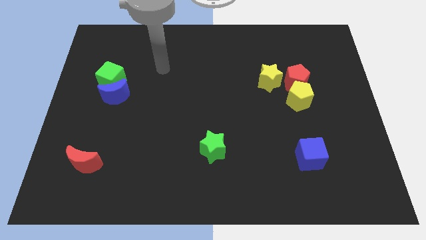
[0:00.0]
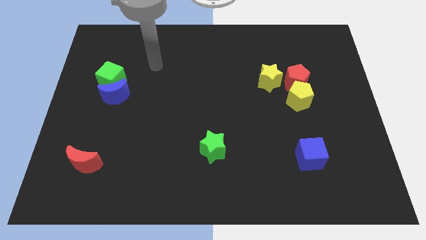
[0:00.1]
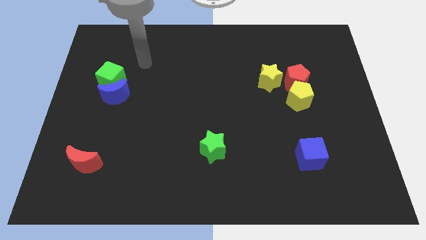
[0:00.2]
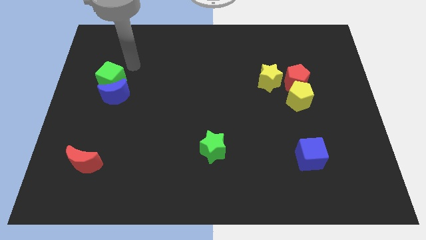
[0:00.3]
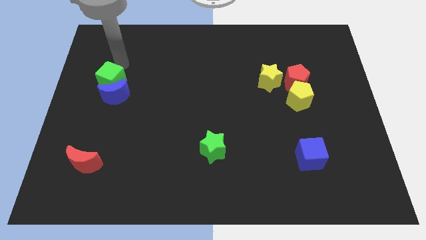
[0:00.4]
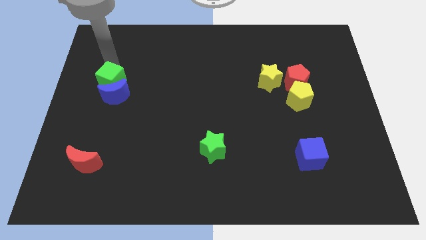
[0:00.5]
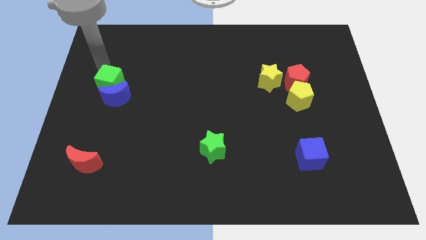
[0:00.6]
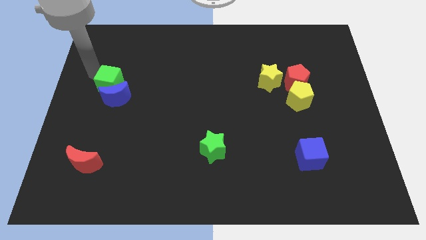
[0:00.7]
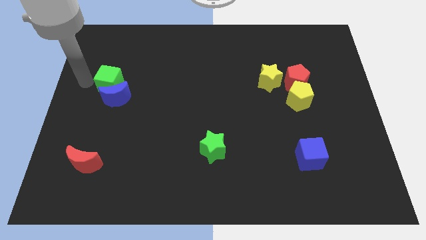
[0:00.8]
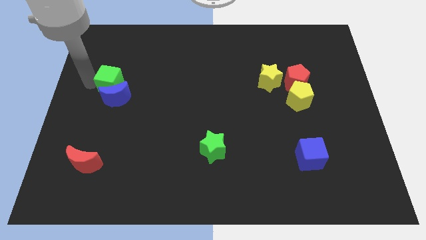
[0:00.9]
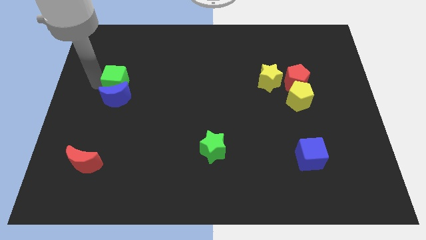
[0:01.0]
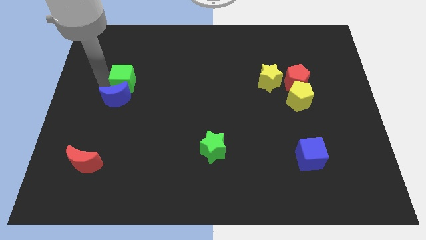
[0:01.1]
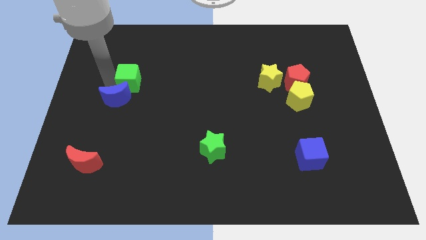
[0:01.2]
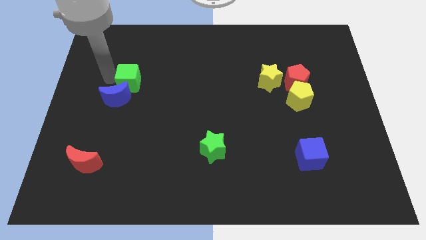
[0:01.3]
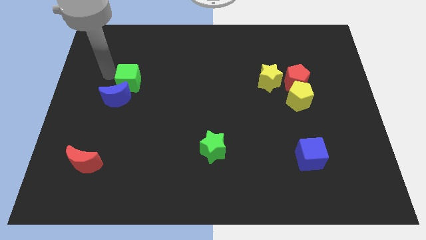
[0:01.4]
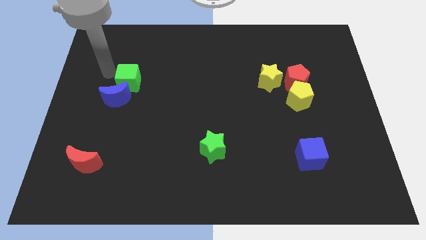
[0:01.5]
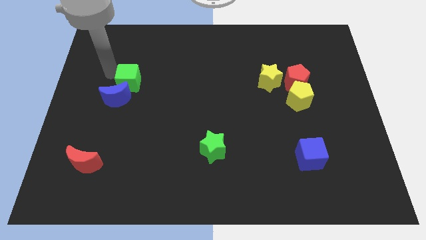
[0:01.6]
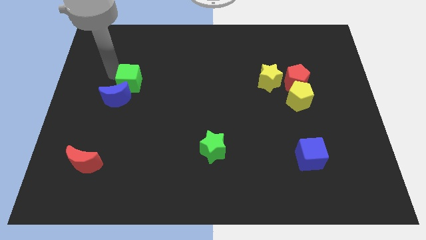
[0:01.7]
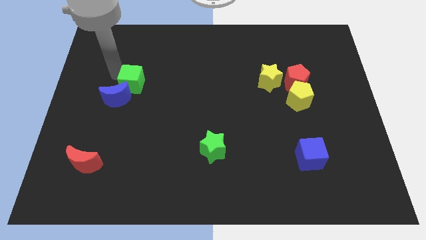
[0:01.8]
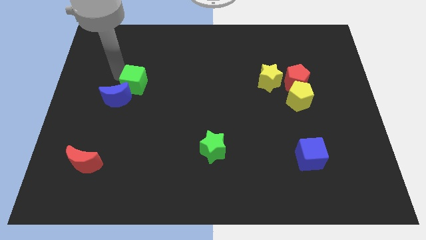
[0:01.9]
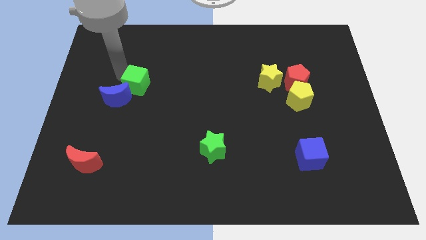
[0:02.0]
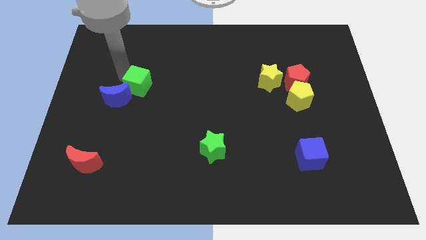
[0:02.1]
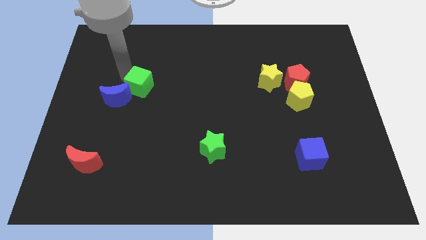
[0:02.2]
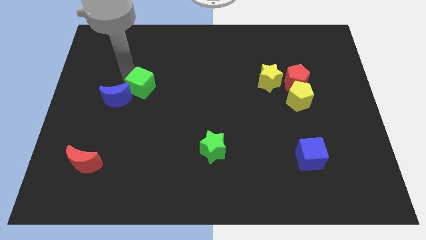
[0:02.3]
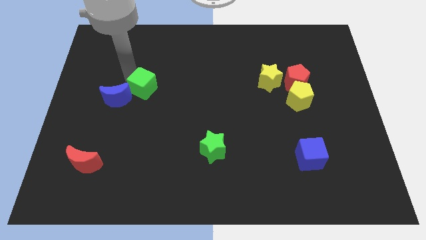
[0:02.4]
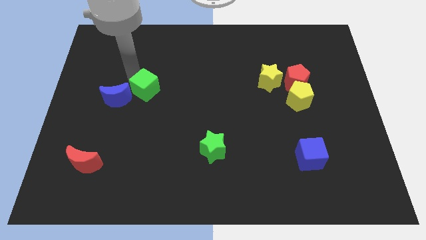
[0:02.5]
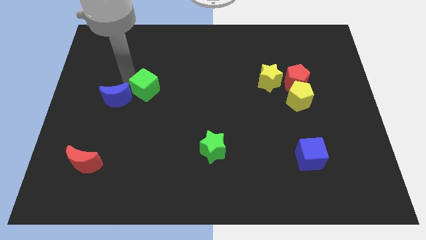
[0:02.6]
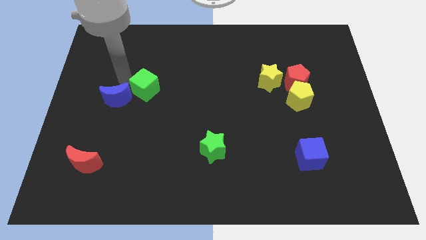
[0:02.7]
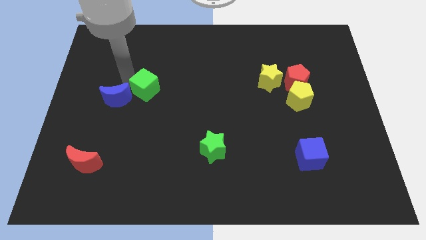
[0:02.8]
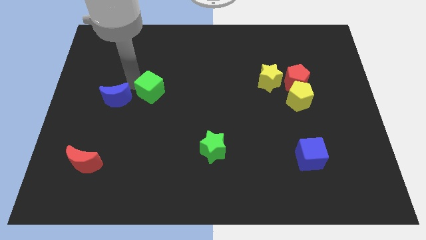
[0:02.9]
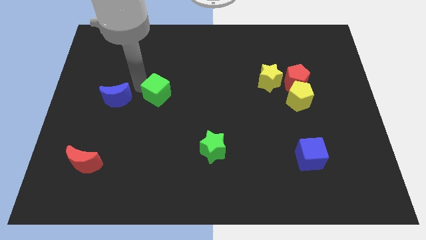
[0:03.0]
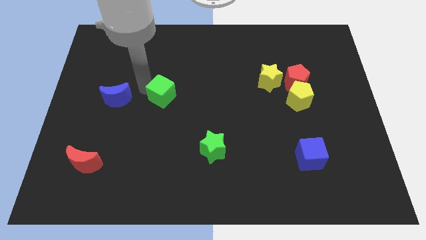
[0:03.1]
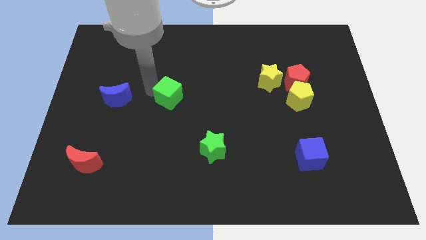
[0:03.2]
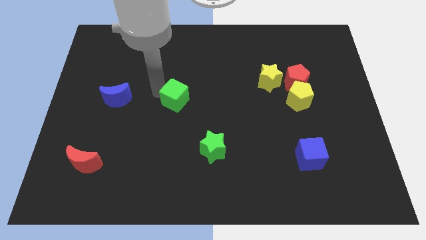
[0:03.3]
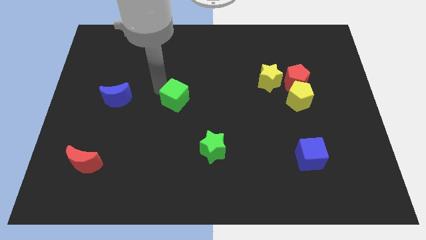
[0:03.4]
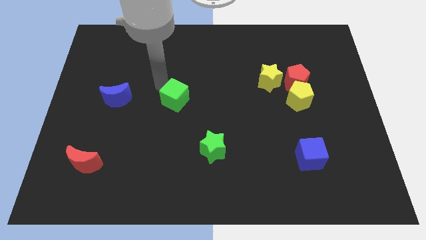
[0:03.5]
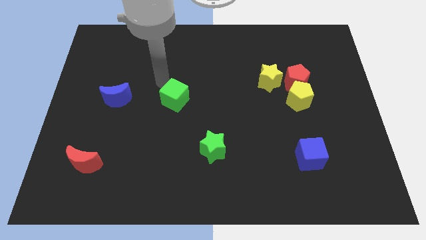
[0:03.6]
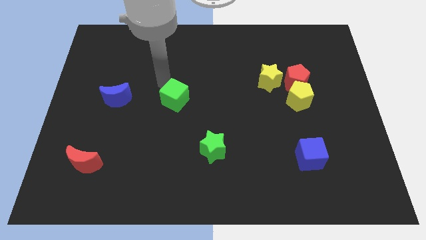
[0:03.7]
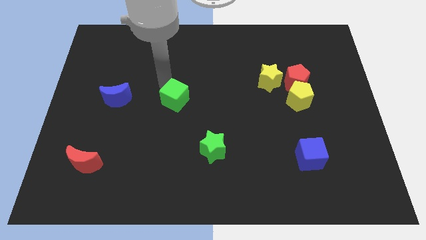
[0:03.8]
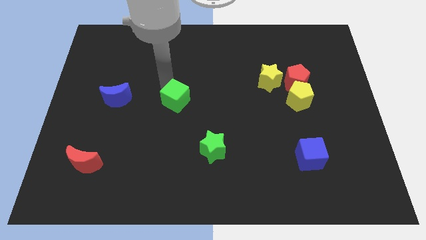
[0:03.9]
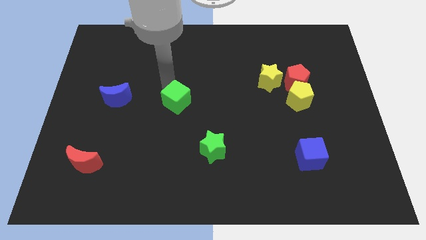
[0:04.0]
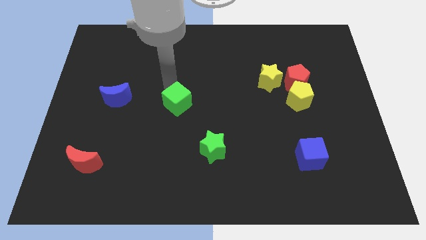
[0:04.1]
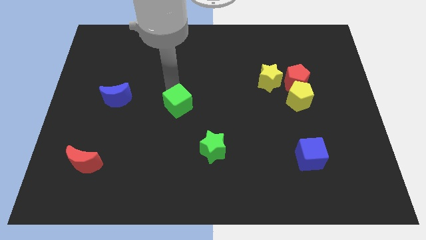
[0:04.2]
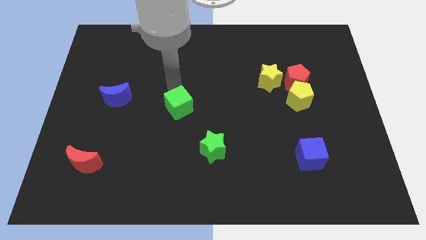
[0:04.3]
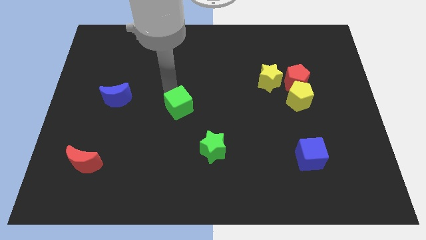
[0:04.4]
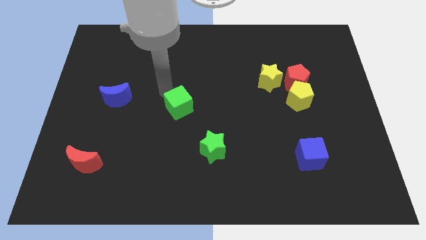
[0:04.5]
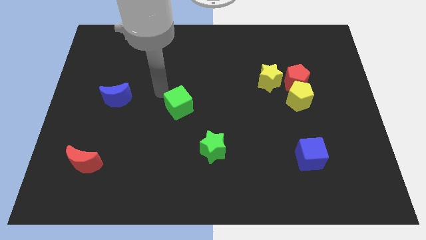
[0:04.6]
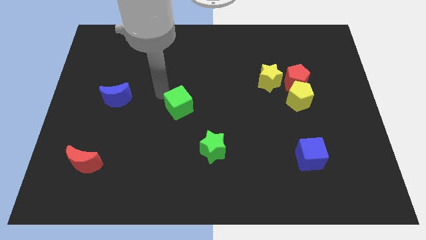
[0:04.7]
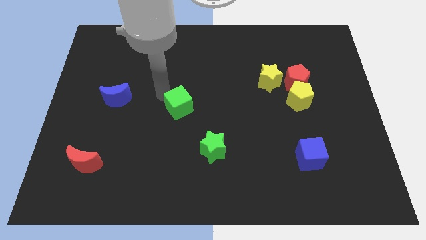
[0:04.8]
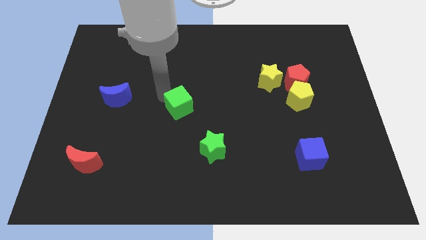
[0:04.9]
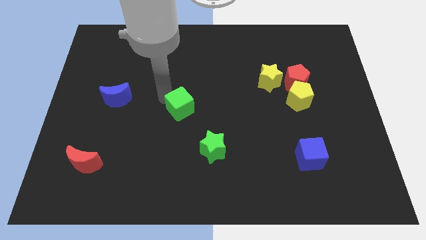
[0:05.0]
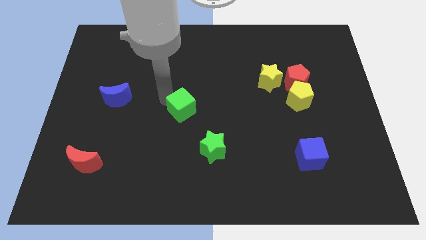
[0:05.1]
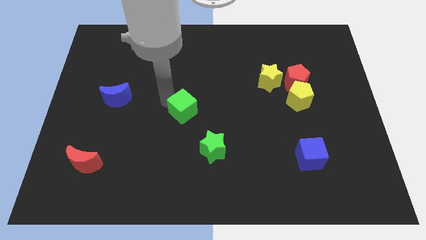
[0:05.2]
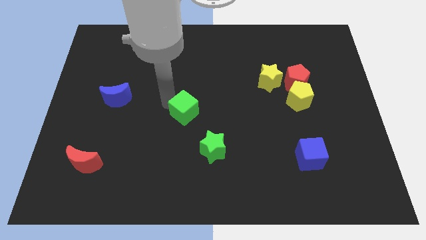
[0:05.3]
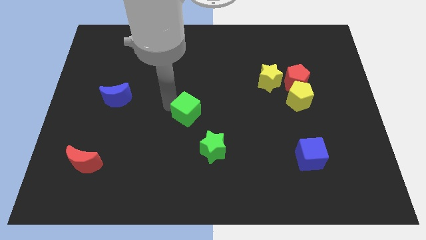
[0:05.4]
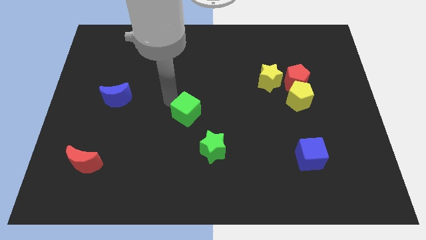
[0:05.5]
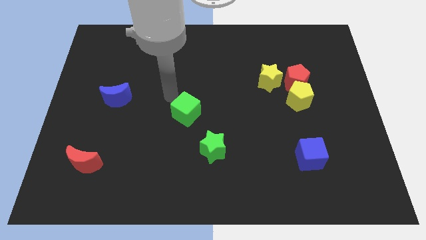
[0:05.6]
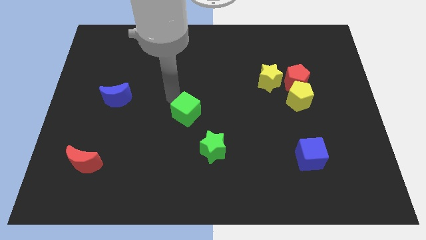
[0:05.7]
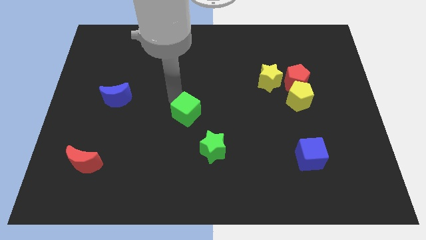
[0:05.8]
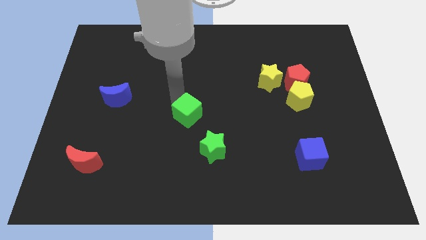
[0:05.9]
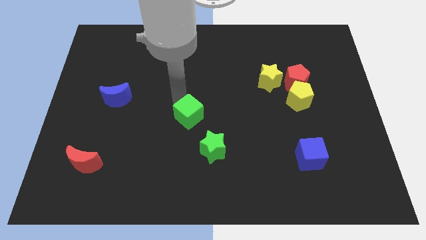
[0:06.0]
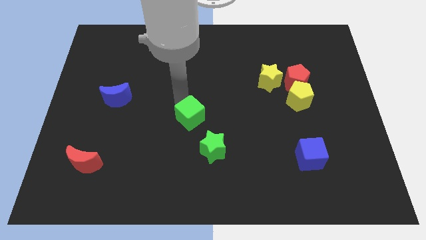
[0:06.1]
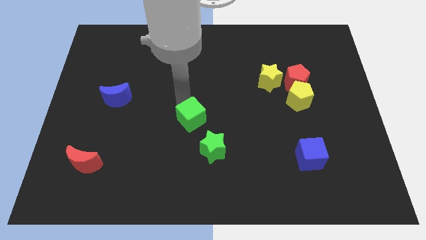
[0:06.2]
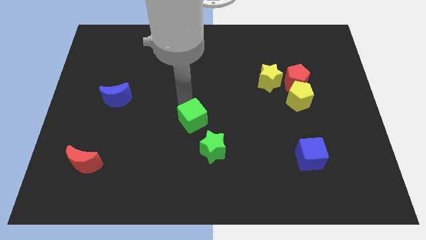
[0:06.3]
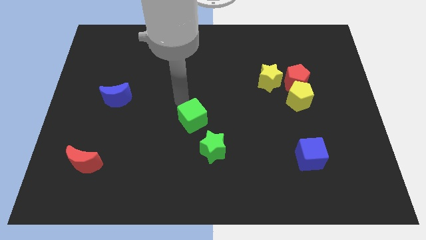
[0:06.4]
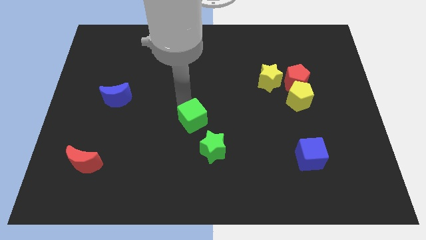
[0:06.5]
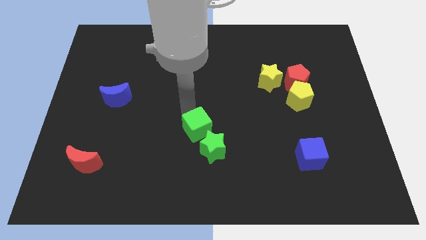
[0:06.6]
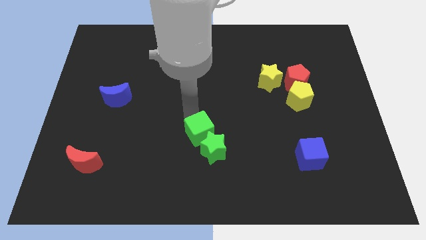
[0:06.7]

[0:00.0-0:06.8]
slide the green cube towards the green star

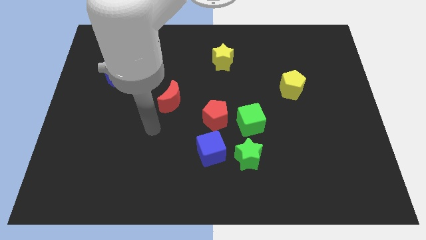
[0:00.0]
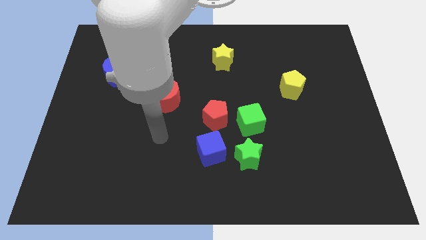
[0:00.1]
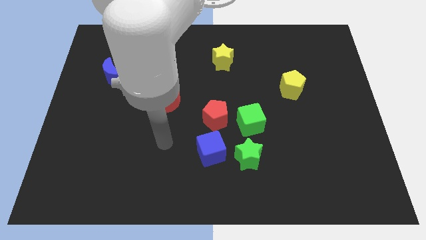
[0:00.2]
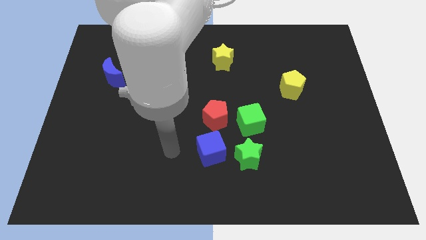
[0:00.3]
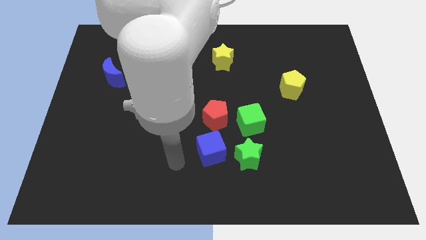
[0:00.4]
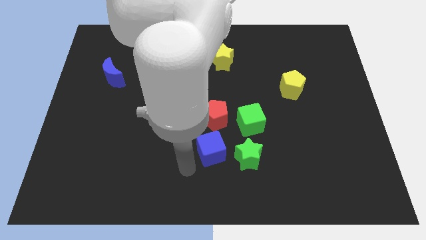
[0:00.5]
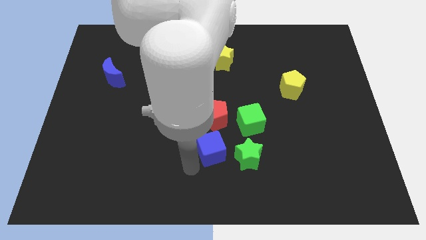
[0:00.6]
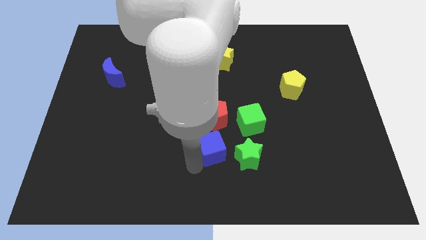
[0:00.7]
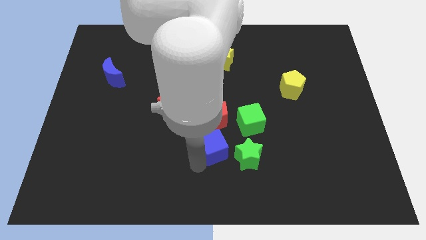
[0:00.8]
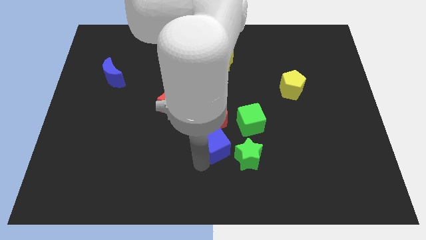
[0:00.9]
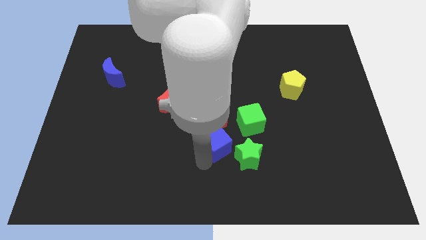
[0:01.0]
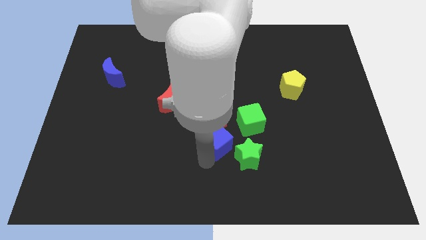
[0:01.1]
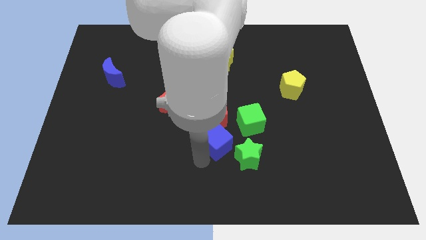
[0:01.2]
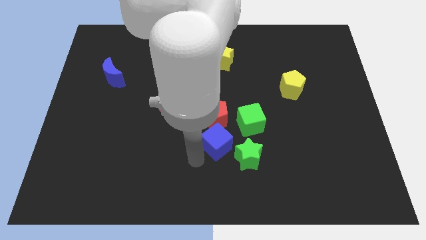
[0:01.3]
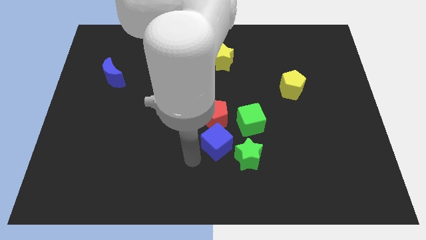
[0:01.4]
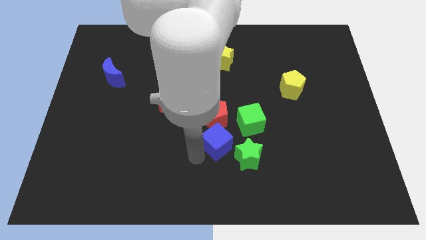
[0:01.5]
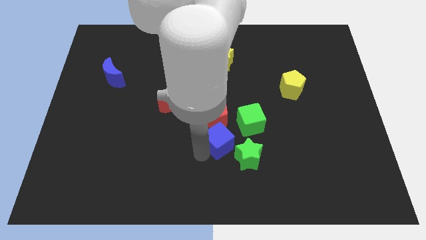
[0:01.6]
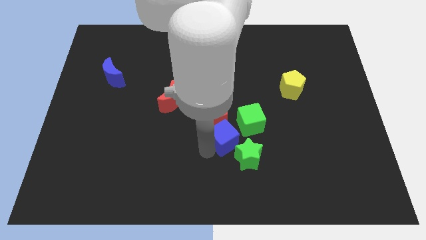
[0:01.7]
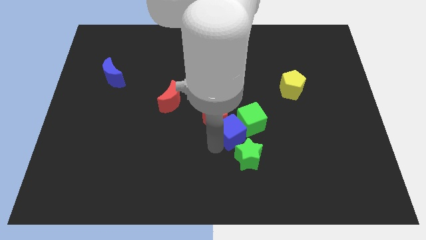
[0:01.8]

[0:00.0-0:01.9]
slide the blue cube to the green cube
